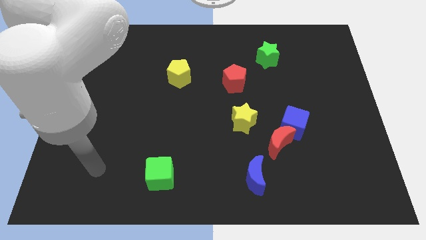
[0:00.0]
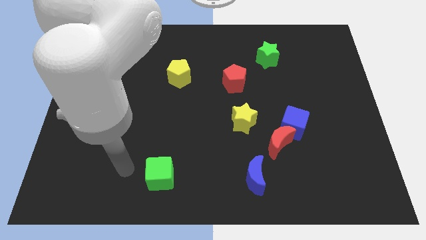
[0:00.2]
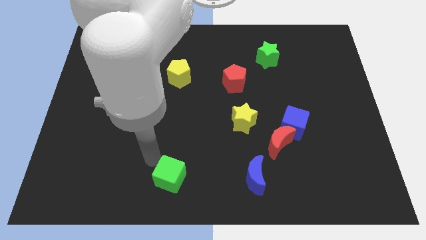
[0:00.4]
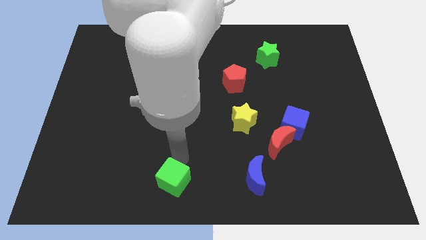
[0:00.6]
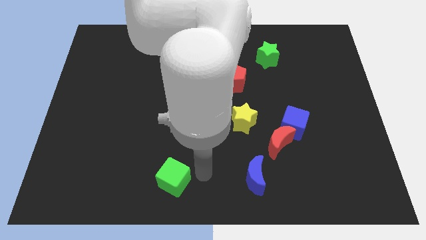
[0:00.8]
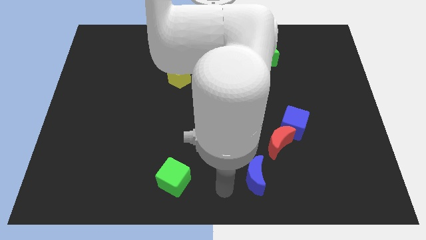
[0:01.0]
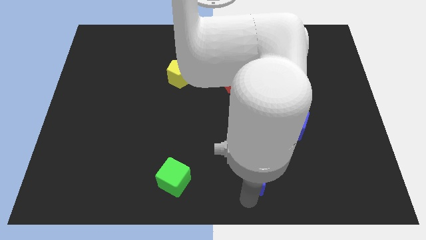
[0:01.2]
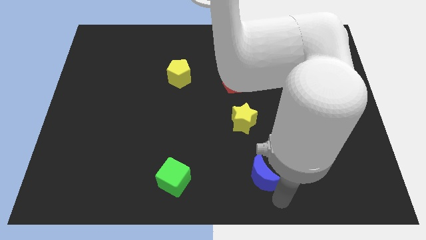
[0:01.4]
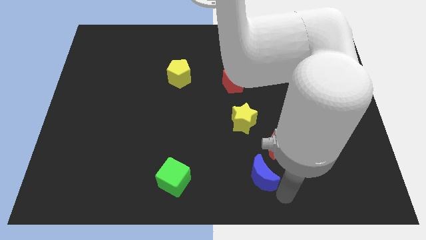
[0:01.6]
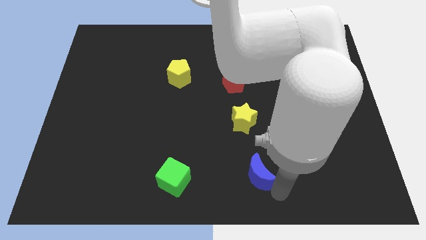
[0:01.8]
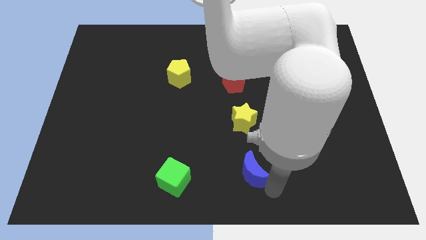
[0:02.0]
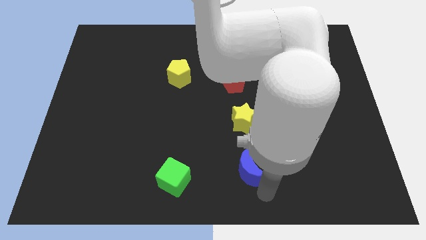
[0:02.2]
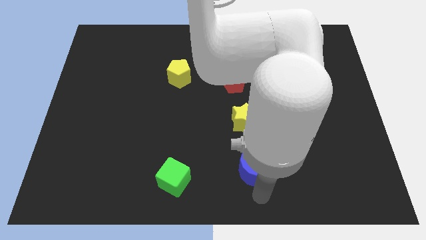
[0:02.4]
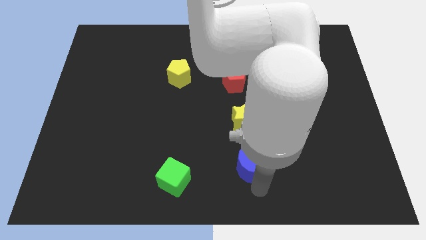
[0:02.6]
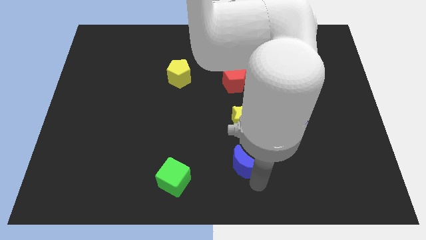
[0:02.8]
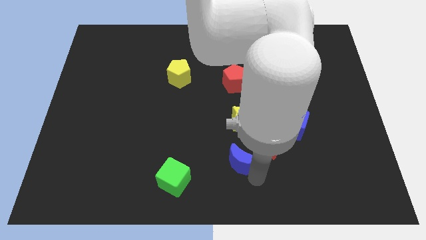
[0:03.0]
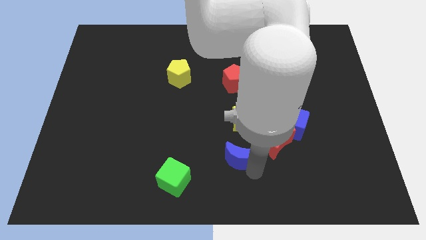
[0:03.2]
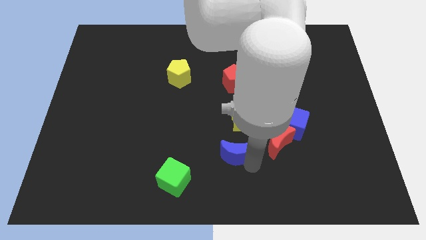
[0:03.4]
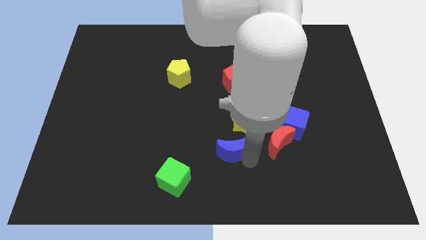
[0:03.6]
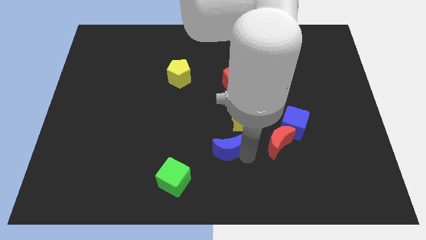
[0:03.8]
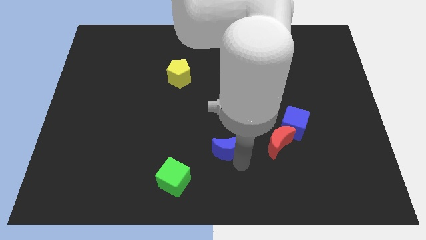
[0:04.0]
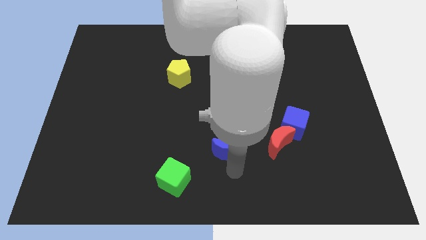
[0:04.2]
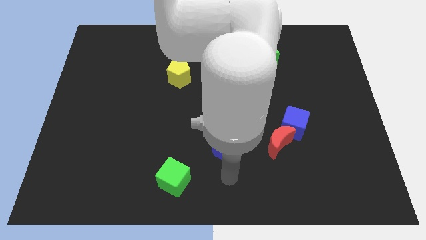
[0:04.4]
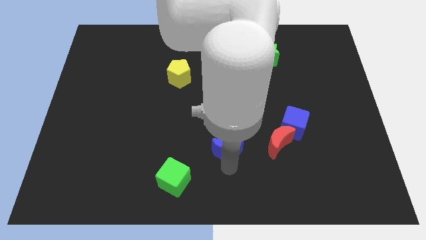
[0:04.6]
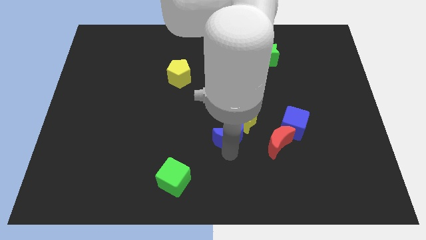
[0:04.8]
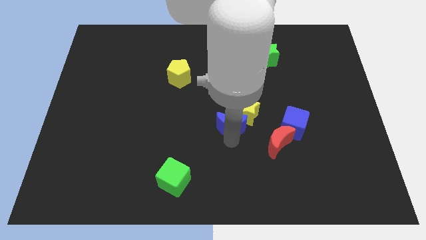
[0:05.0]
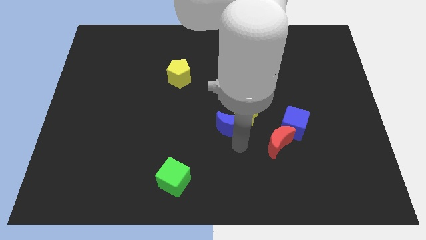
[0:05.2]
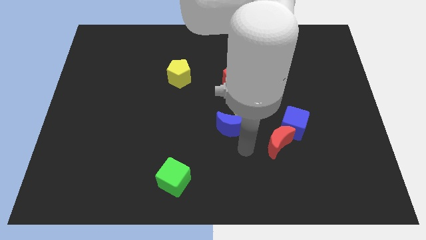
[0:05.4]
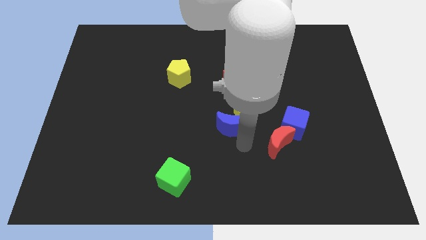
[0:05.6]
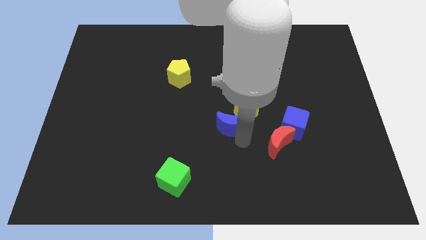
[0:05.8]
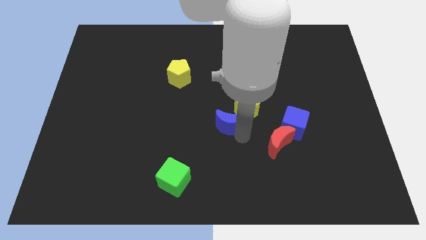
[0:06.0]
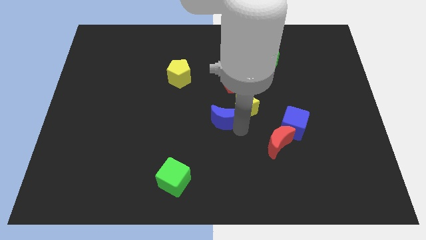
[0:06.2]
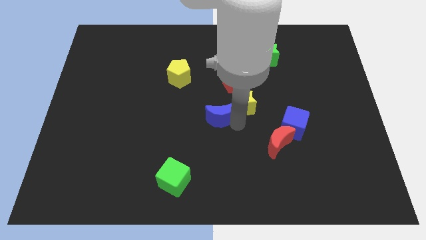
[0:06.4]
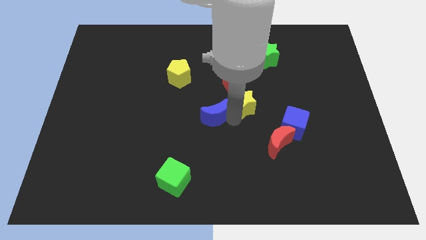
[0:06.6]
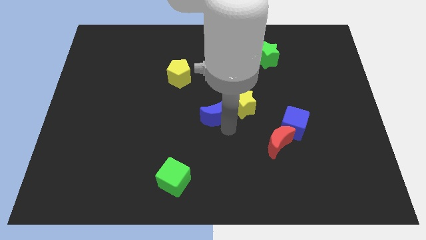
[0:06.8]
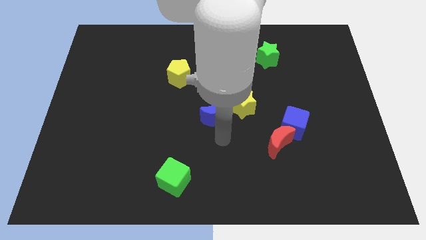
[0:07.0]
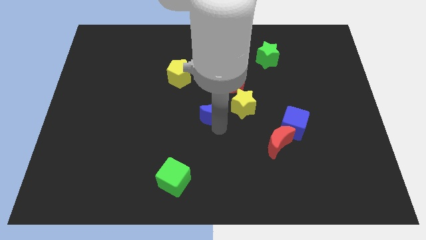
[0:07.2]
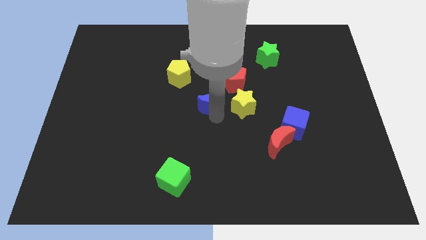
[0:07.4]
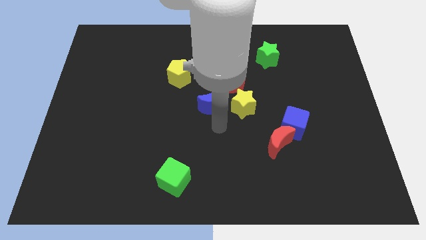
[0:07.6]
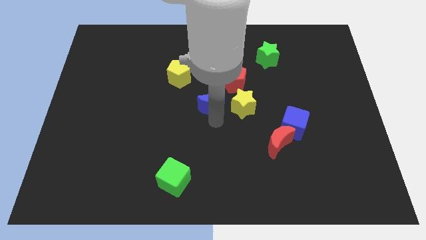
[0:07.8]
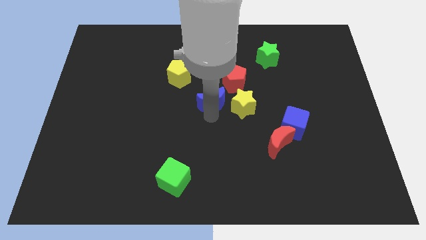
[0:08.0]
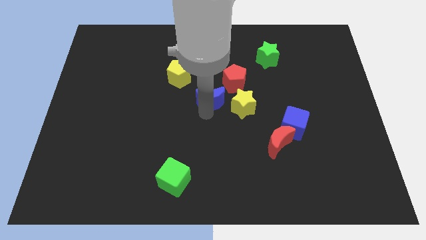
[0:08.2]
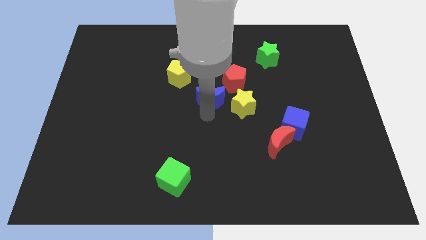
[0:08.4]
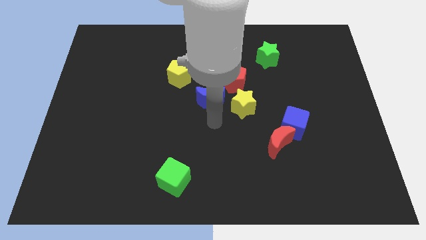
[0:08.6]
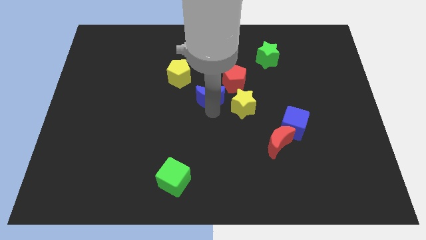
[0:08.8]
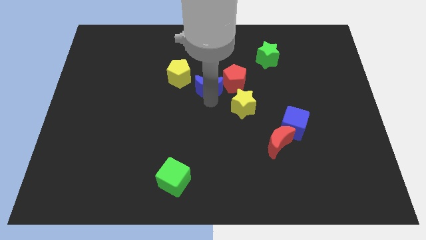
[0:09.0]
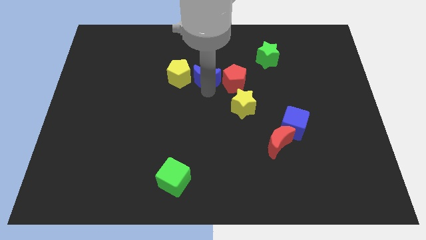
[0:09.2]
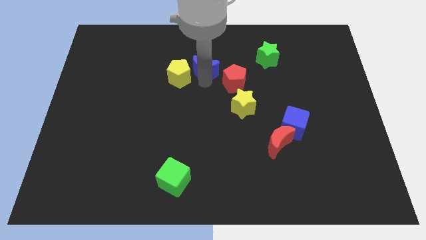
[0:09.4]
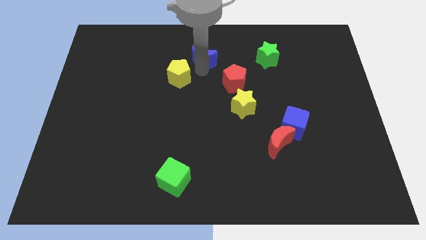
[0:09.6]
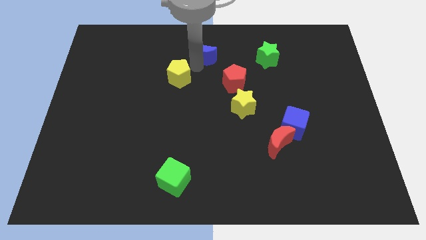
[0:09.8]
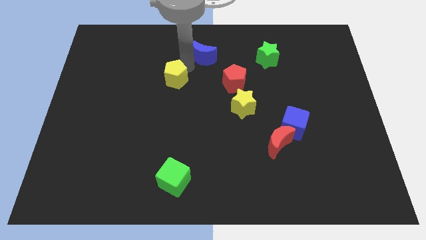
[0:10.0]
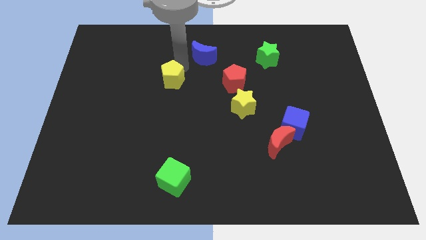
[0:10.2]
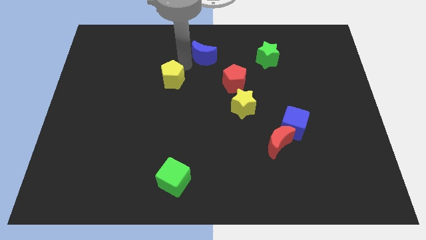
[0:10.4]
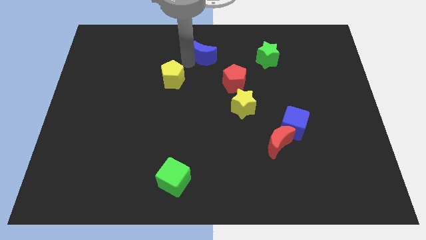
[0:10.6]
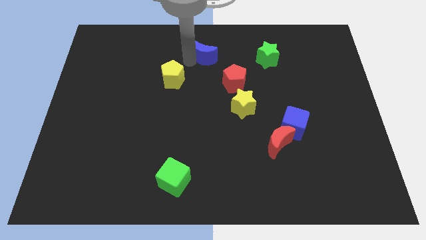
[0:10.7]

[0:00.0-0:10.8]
put the blue moon to the towards your base

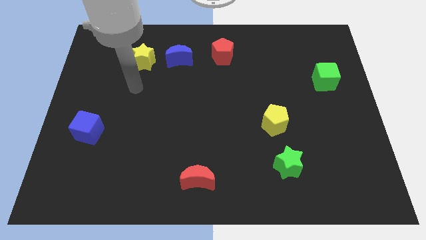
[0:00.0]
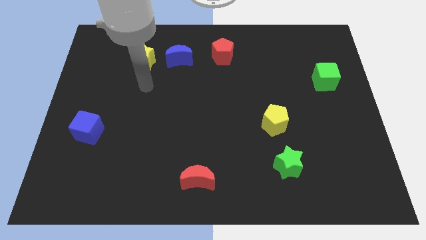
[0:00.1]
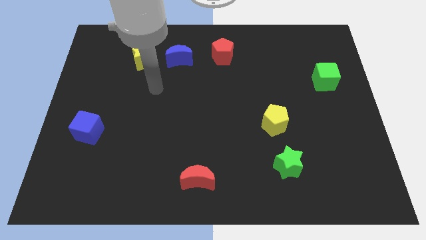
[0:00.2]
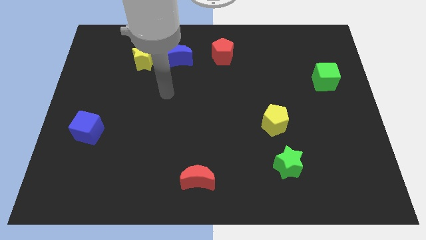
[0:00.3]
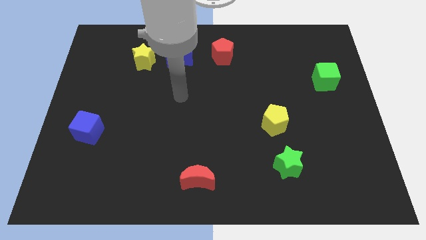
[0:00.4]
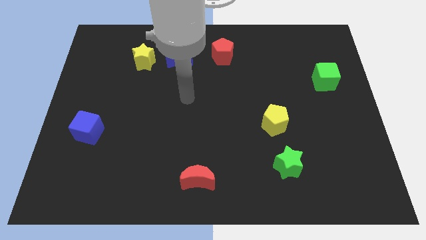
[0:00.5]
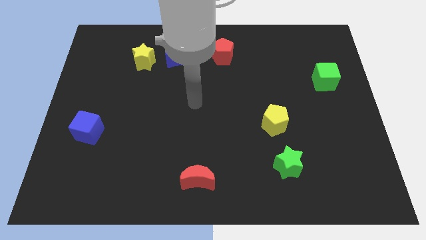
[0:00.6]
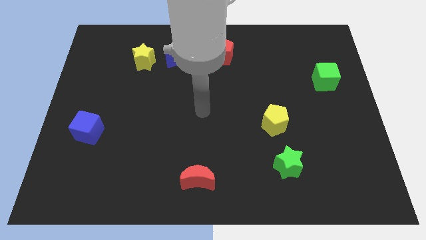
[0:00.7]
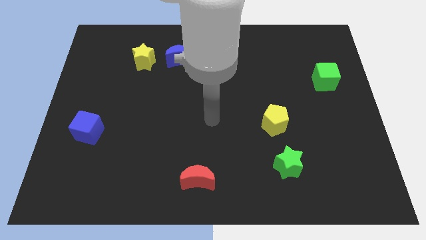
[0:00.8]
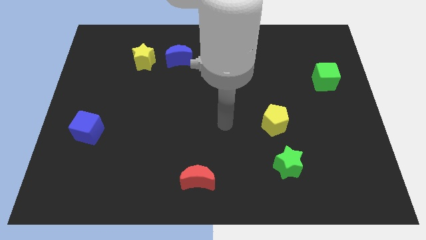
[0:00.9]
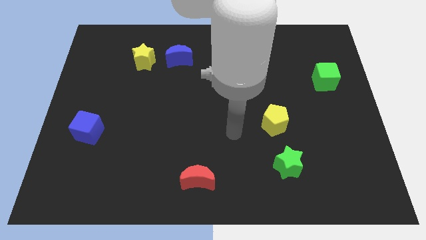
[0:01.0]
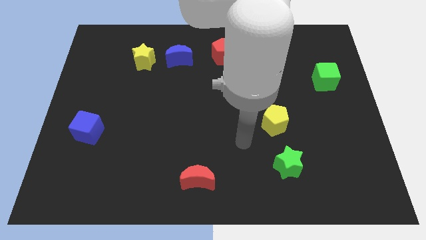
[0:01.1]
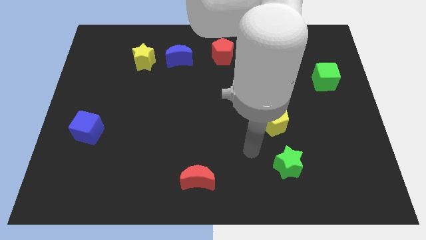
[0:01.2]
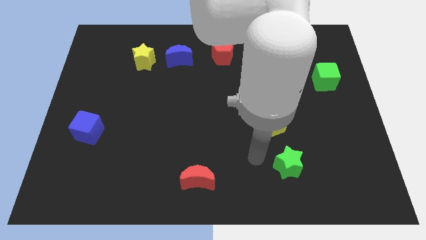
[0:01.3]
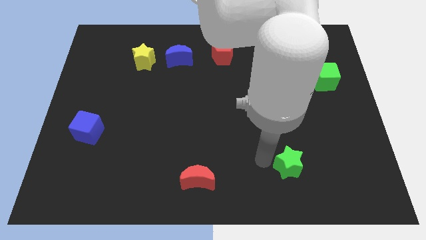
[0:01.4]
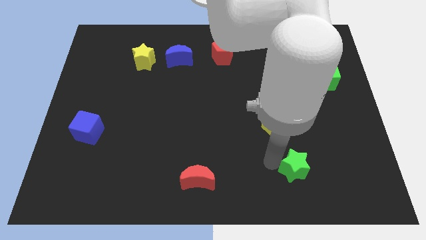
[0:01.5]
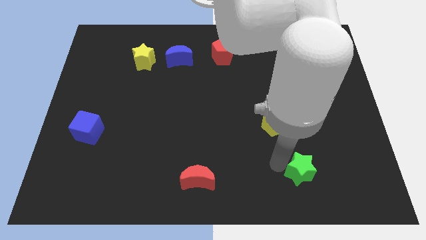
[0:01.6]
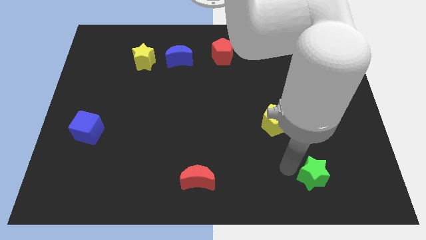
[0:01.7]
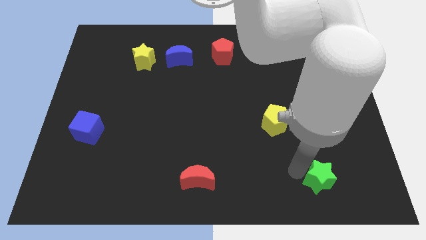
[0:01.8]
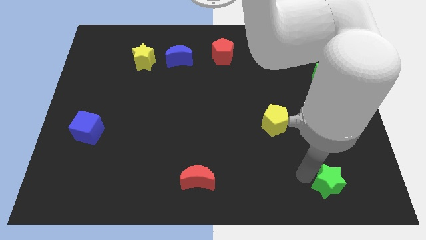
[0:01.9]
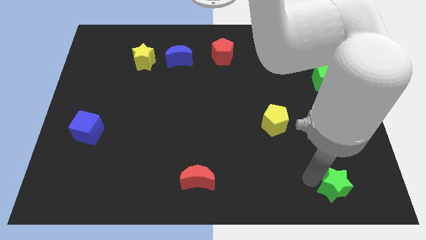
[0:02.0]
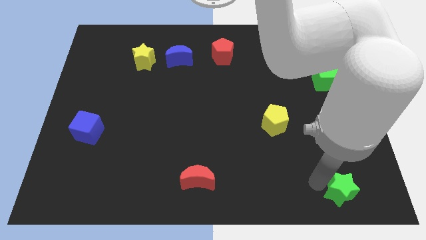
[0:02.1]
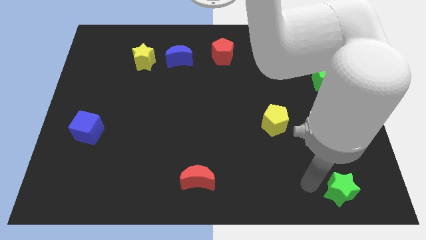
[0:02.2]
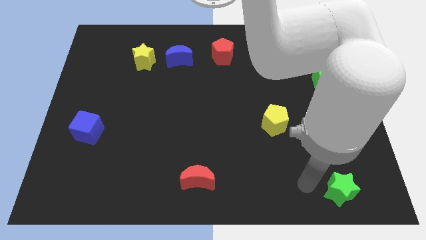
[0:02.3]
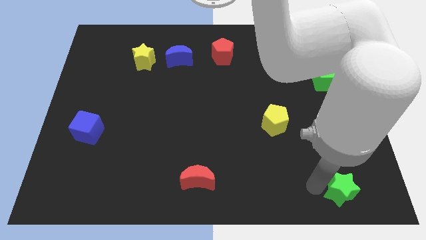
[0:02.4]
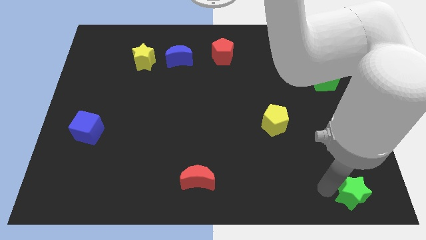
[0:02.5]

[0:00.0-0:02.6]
move the green star to the bottom right
